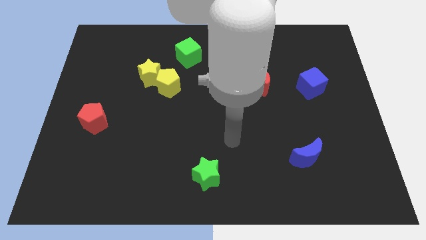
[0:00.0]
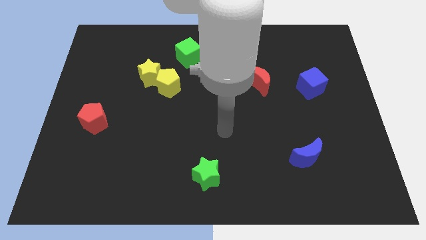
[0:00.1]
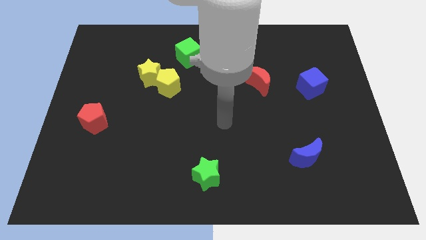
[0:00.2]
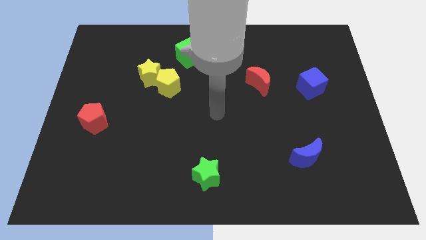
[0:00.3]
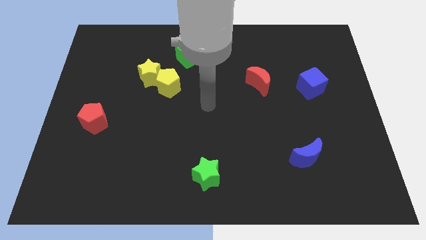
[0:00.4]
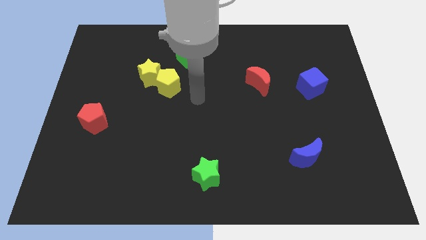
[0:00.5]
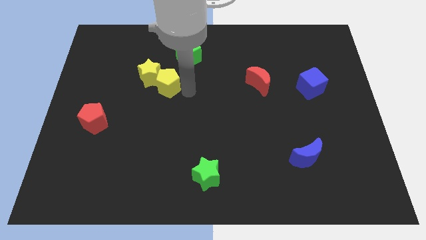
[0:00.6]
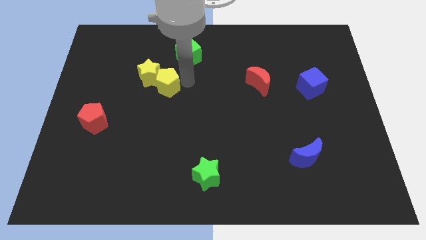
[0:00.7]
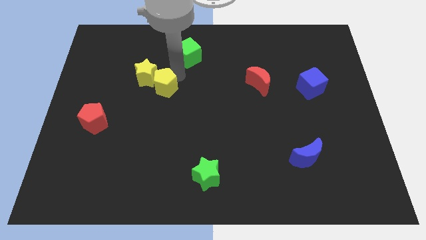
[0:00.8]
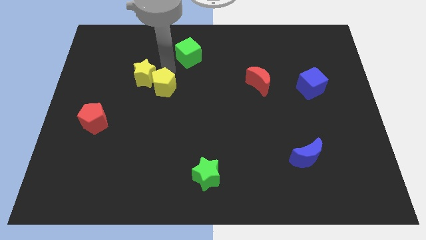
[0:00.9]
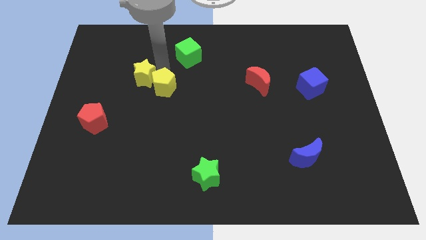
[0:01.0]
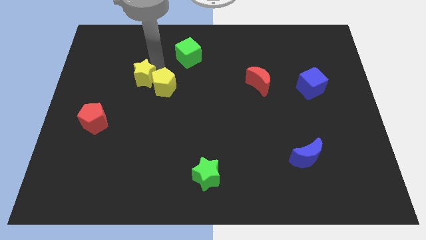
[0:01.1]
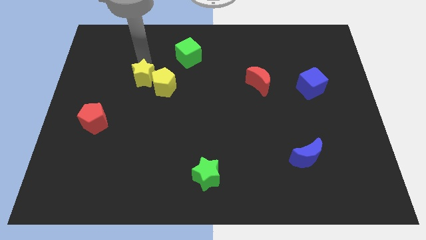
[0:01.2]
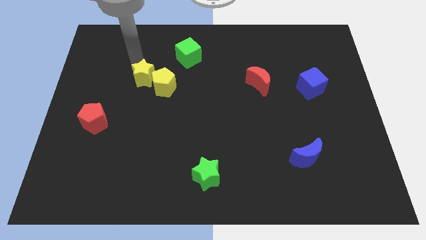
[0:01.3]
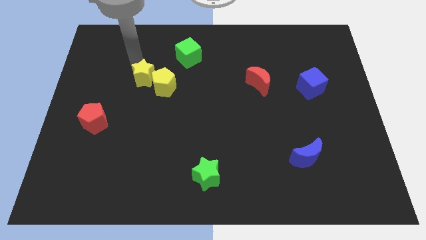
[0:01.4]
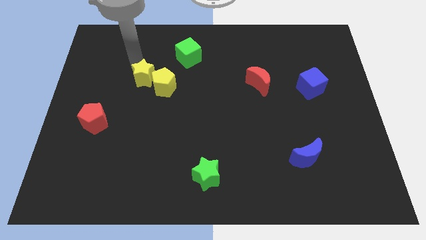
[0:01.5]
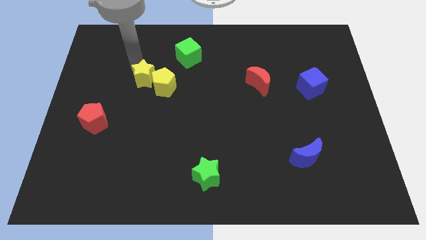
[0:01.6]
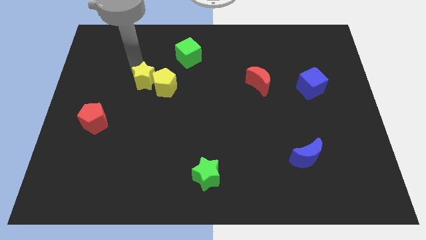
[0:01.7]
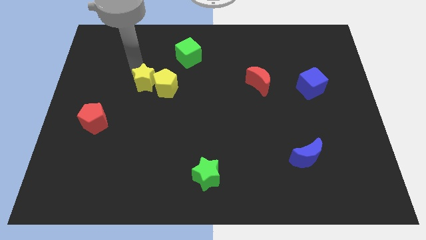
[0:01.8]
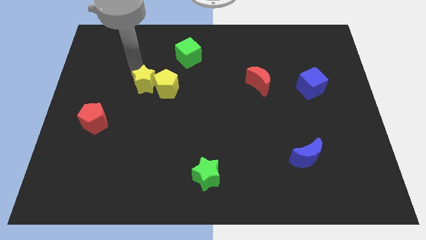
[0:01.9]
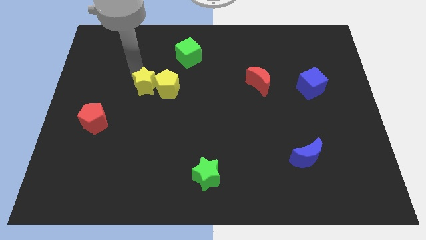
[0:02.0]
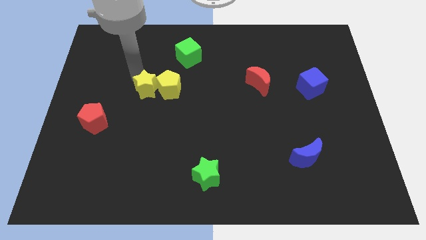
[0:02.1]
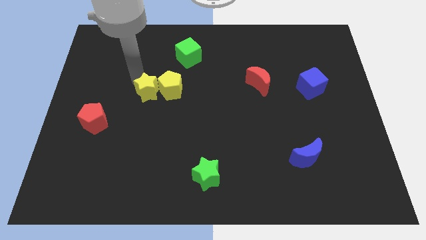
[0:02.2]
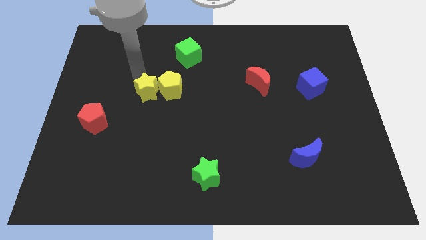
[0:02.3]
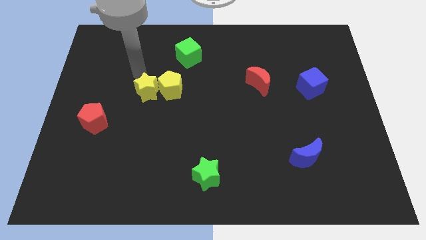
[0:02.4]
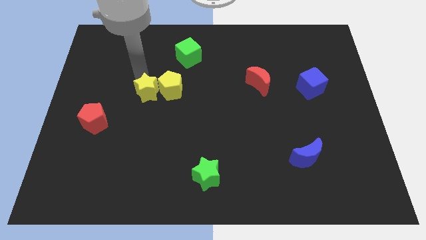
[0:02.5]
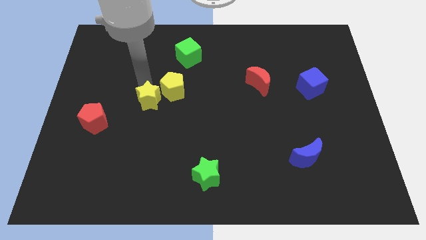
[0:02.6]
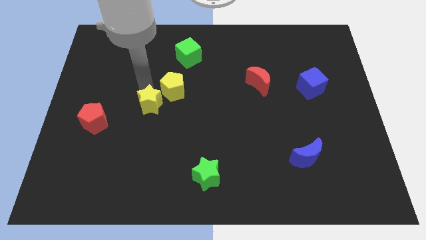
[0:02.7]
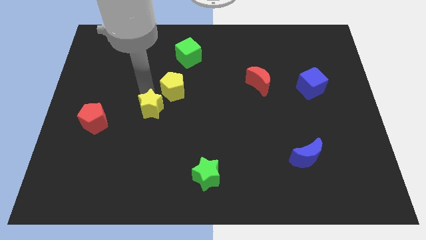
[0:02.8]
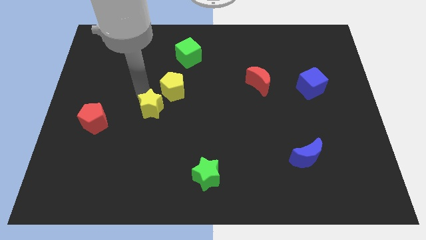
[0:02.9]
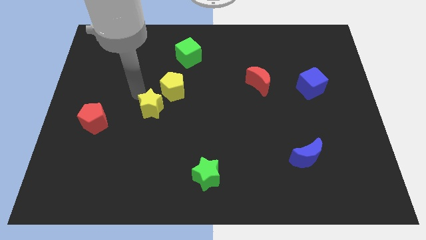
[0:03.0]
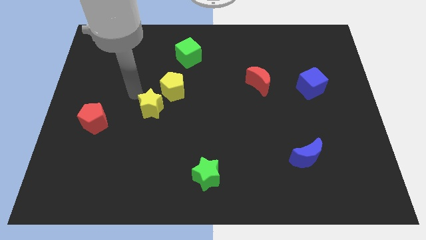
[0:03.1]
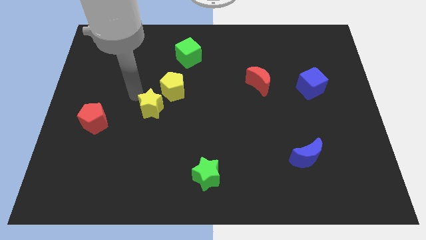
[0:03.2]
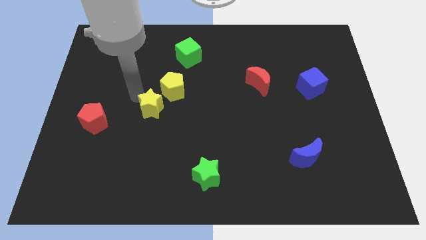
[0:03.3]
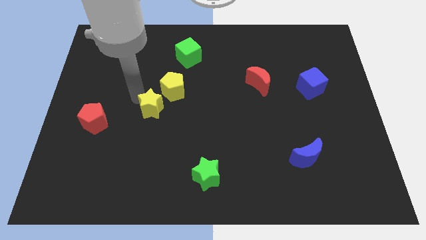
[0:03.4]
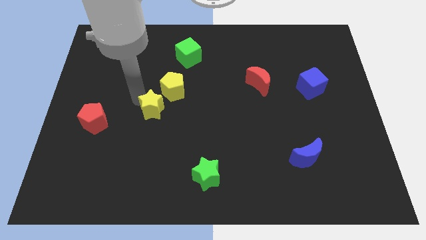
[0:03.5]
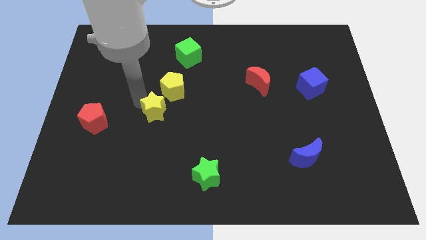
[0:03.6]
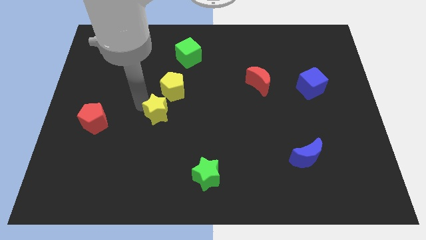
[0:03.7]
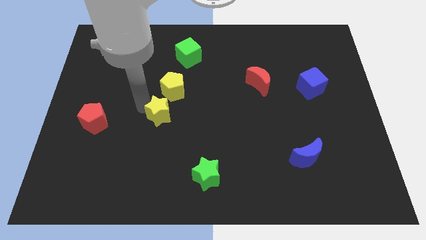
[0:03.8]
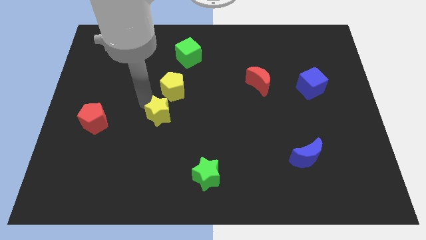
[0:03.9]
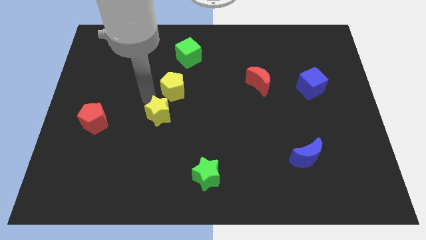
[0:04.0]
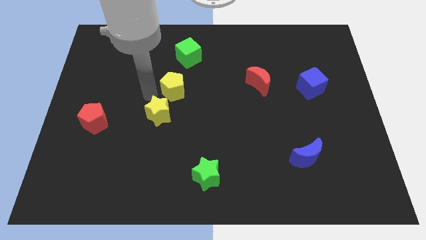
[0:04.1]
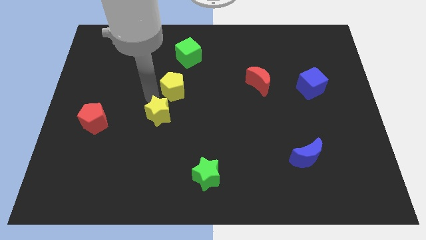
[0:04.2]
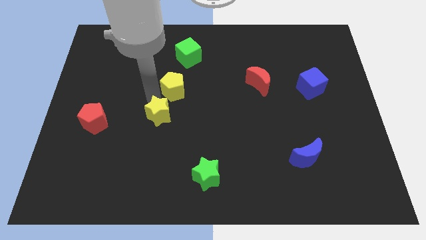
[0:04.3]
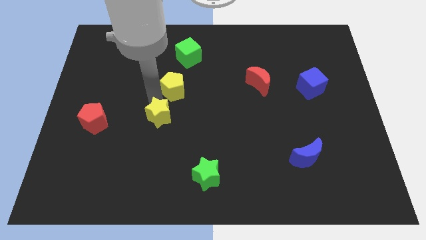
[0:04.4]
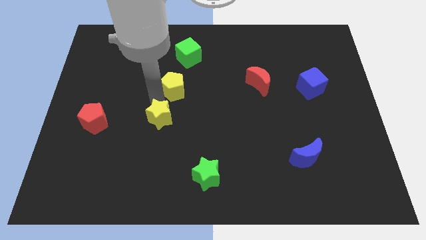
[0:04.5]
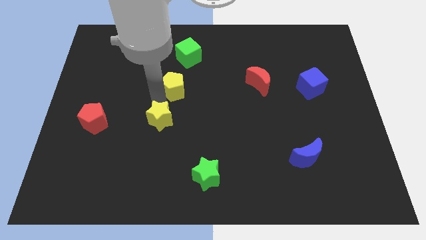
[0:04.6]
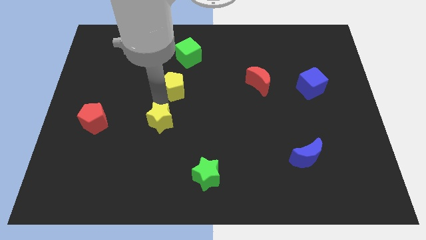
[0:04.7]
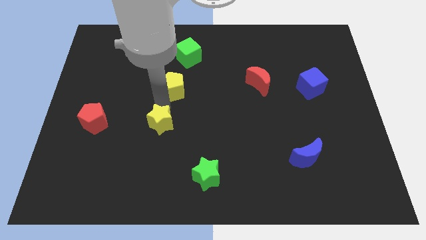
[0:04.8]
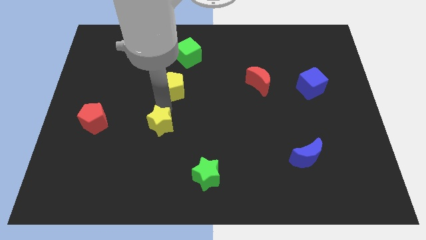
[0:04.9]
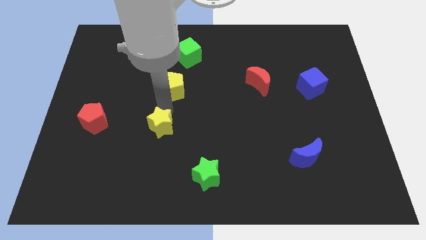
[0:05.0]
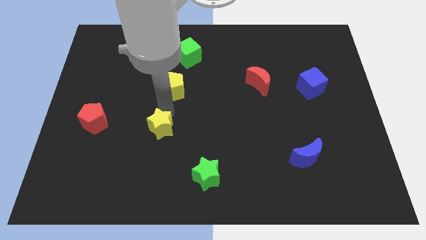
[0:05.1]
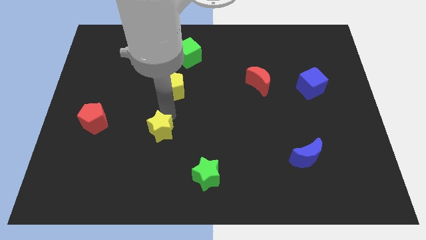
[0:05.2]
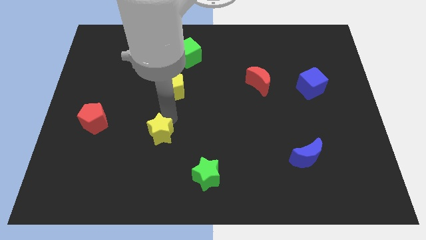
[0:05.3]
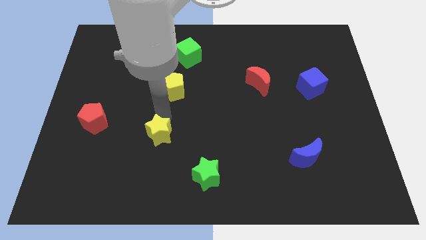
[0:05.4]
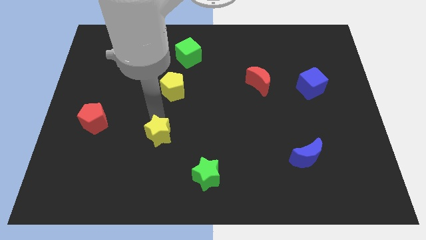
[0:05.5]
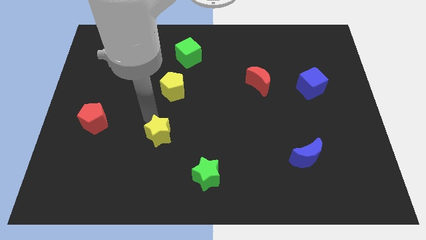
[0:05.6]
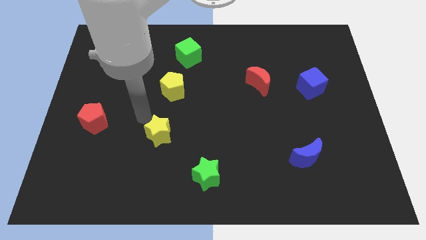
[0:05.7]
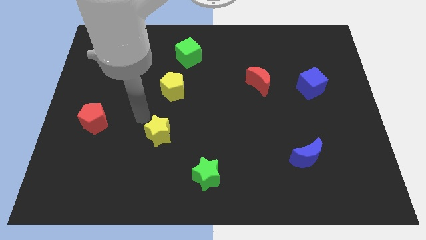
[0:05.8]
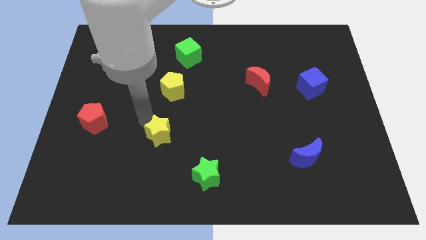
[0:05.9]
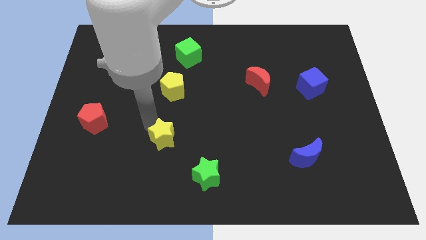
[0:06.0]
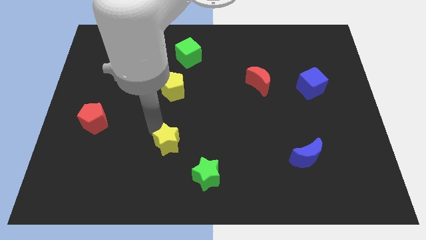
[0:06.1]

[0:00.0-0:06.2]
move the yellow star diagonally up and to the left of the green star

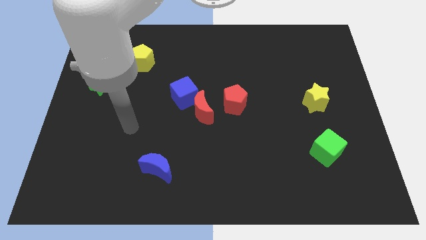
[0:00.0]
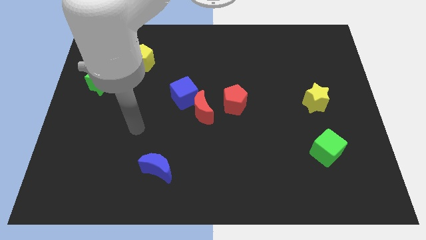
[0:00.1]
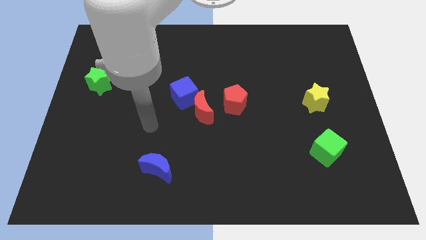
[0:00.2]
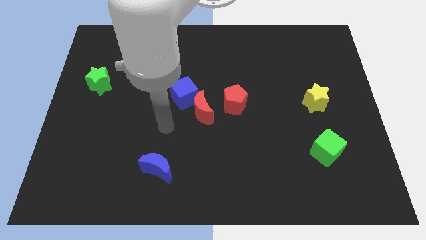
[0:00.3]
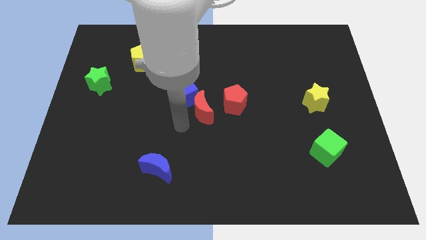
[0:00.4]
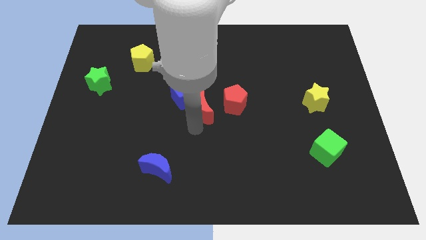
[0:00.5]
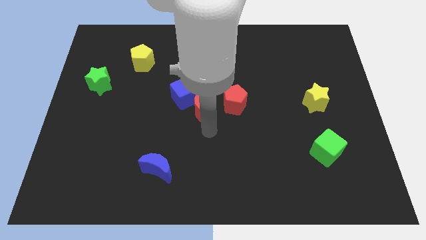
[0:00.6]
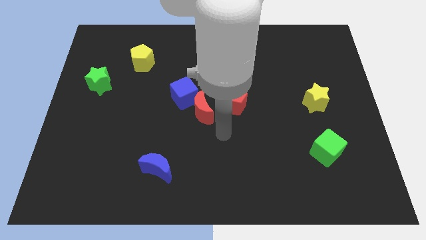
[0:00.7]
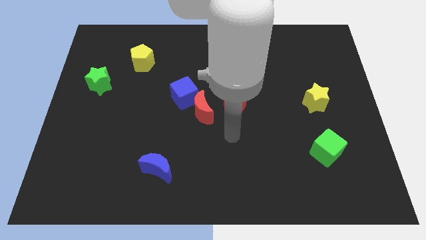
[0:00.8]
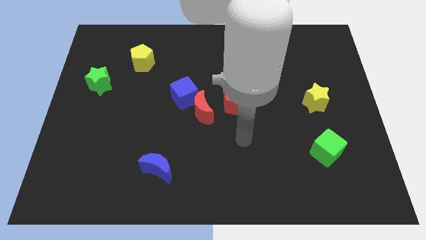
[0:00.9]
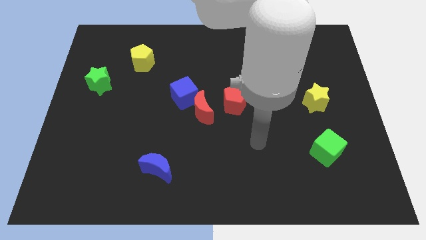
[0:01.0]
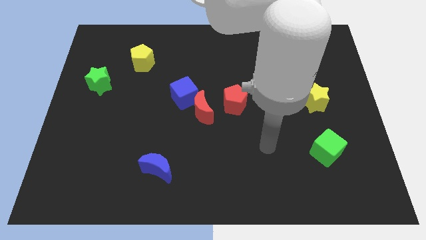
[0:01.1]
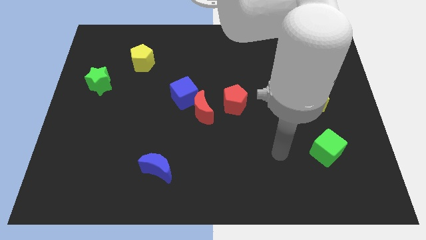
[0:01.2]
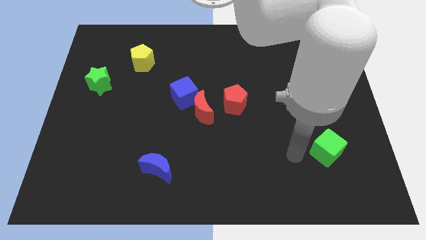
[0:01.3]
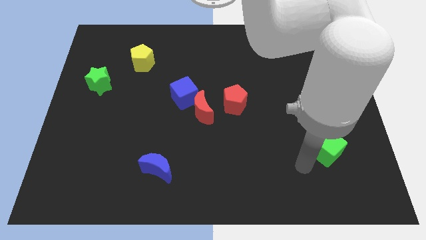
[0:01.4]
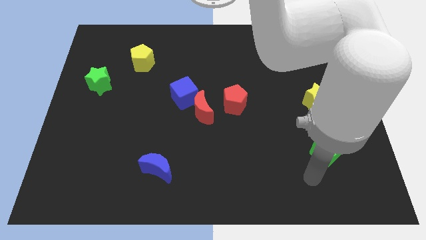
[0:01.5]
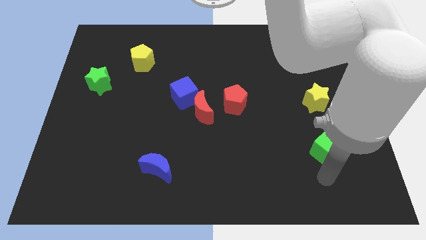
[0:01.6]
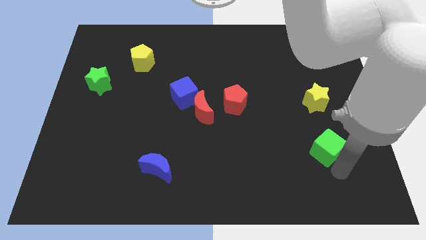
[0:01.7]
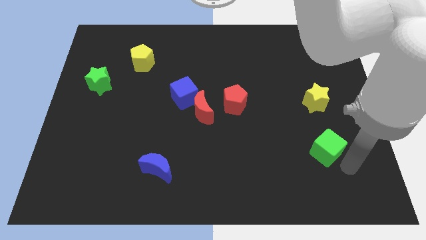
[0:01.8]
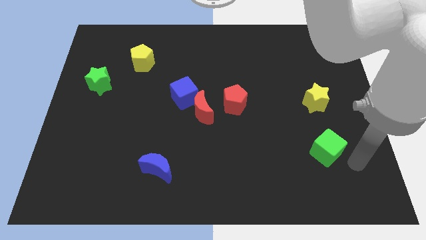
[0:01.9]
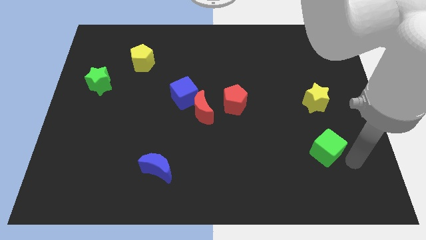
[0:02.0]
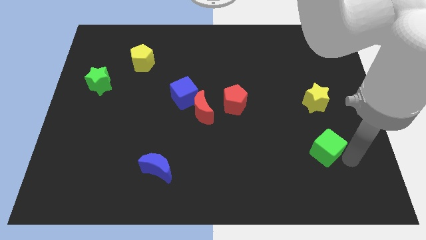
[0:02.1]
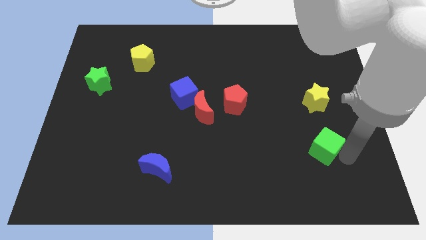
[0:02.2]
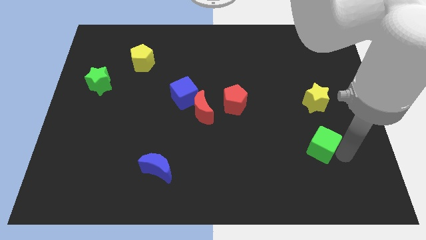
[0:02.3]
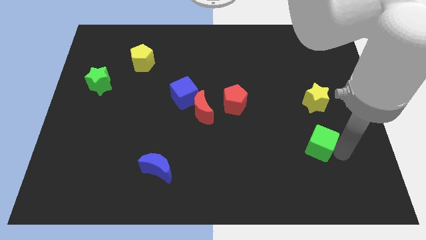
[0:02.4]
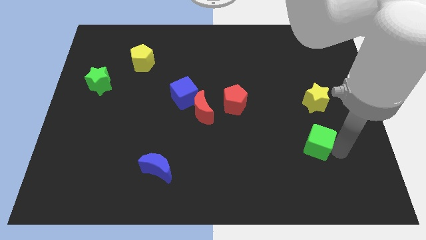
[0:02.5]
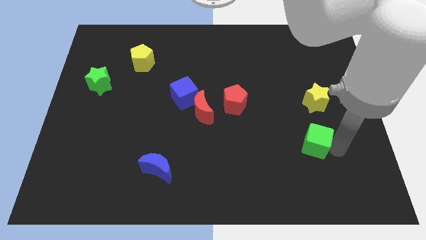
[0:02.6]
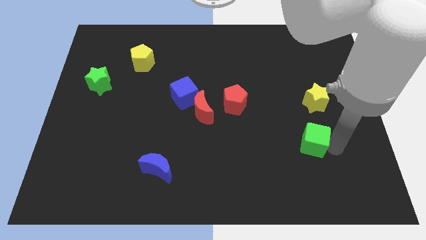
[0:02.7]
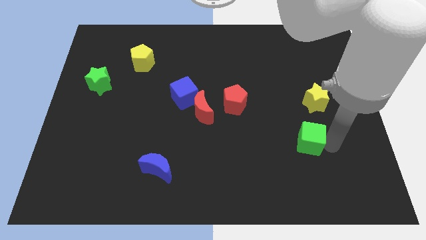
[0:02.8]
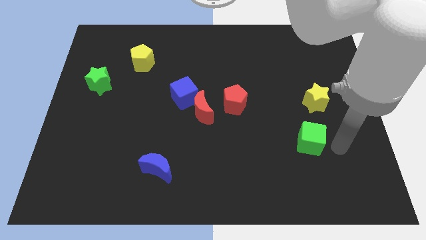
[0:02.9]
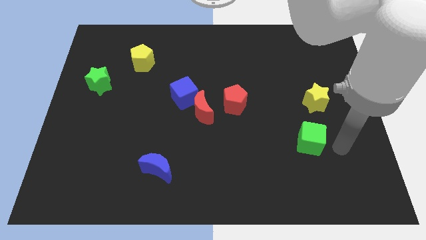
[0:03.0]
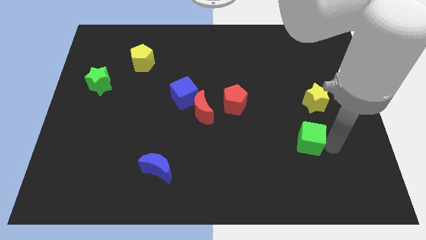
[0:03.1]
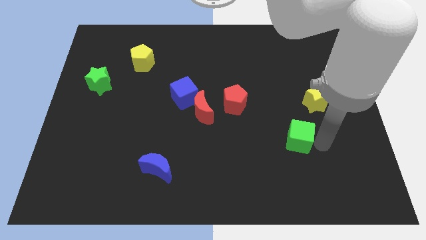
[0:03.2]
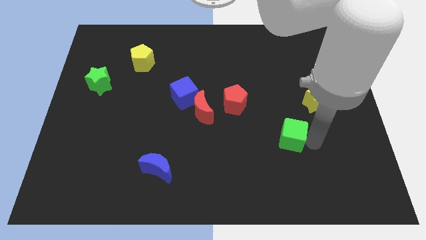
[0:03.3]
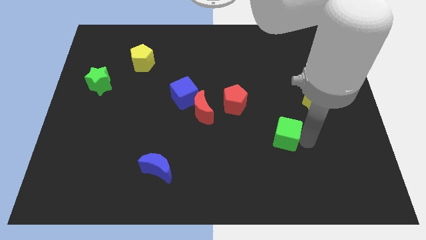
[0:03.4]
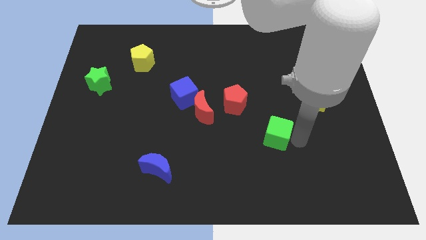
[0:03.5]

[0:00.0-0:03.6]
put the green cube to the bottom right side of the red pentagon
